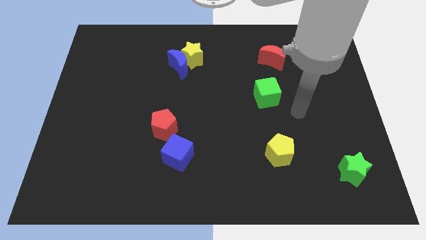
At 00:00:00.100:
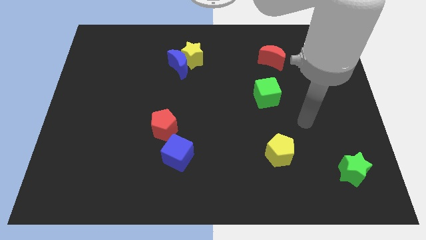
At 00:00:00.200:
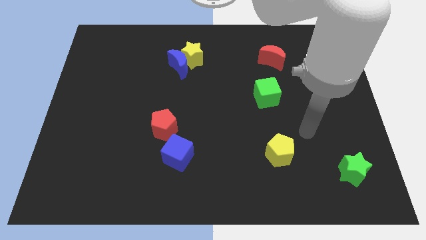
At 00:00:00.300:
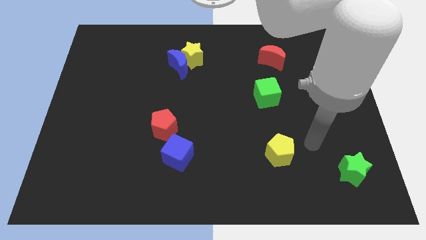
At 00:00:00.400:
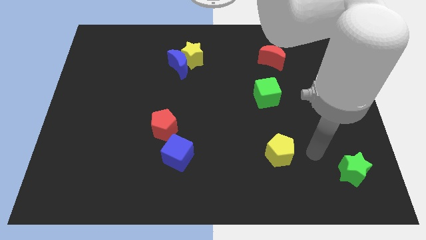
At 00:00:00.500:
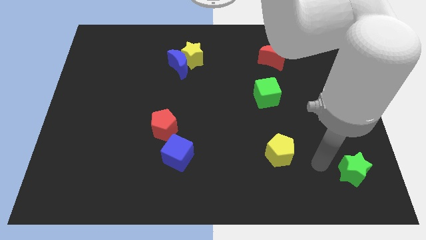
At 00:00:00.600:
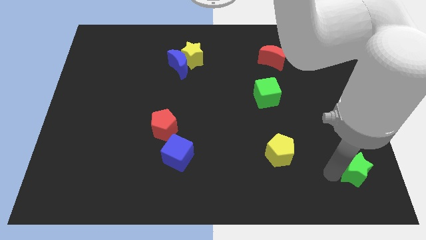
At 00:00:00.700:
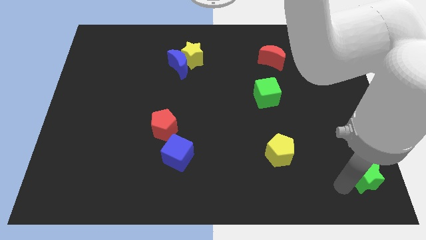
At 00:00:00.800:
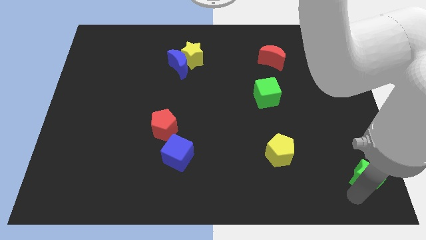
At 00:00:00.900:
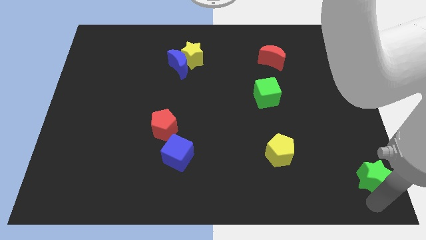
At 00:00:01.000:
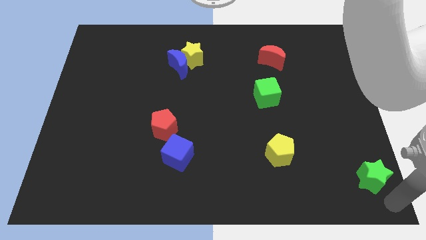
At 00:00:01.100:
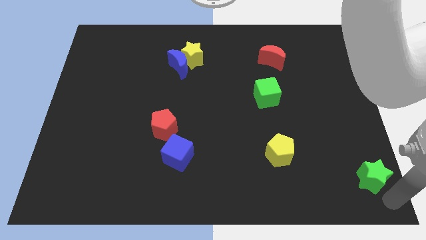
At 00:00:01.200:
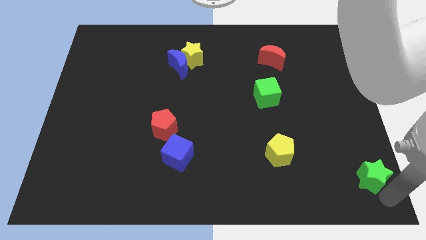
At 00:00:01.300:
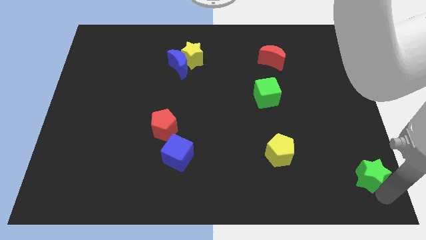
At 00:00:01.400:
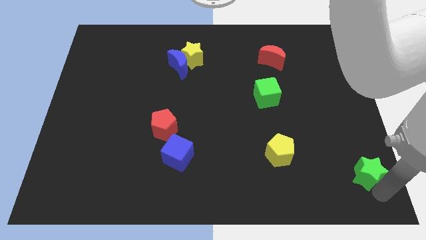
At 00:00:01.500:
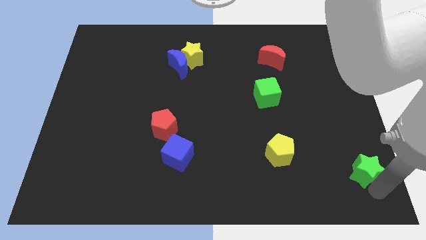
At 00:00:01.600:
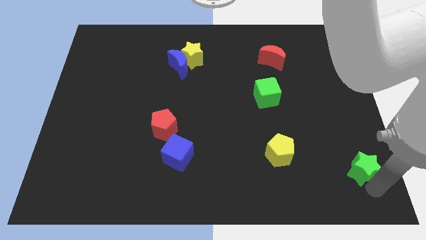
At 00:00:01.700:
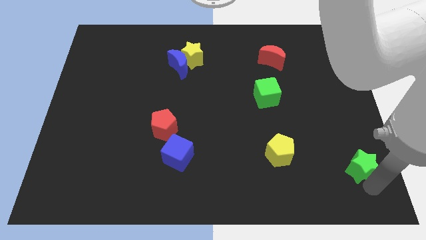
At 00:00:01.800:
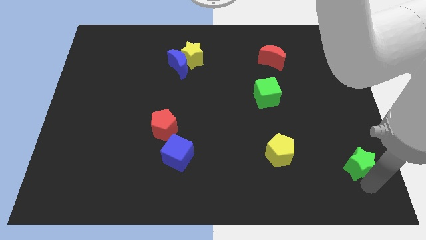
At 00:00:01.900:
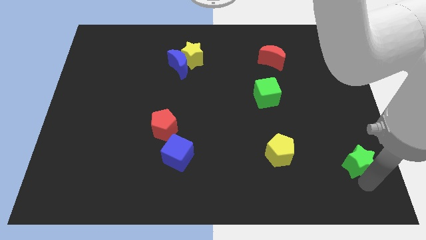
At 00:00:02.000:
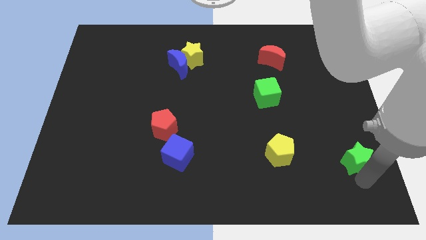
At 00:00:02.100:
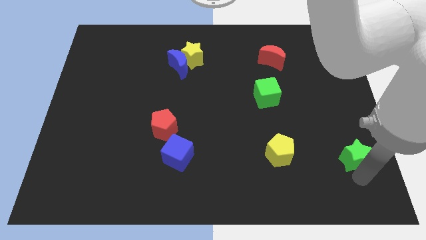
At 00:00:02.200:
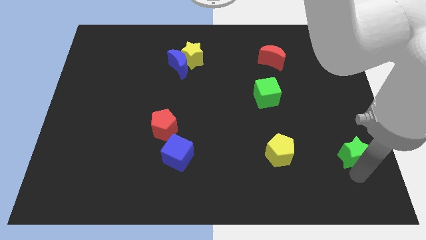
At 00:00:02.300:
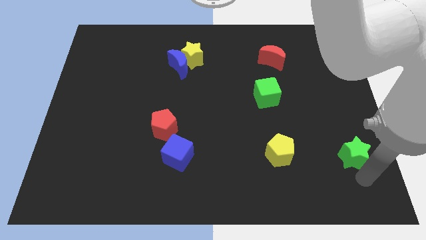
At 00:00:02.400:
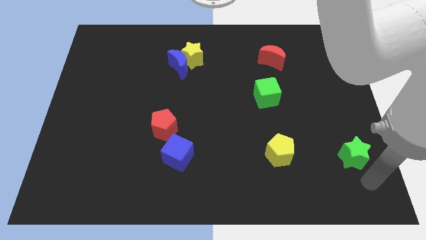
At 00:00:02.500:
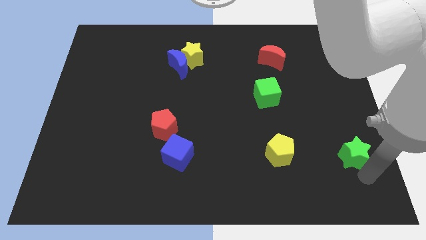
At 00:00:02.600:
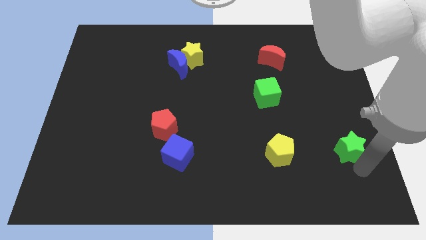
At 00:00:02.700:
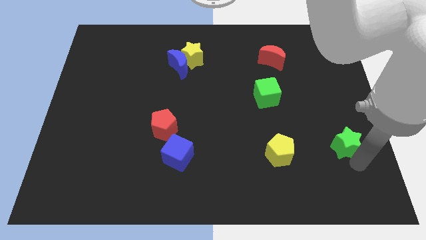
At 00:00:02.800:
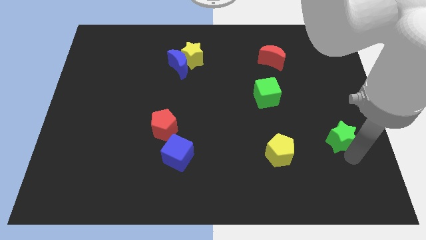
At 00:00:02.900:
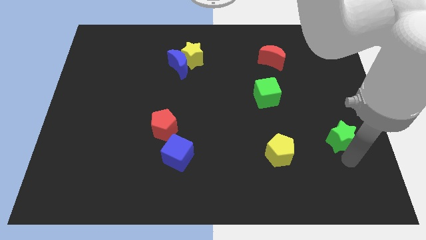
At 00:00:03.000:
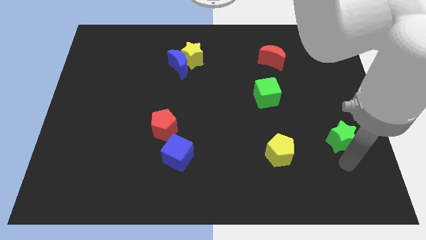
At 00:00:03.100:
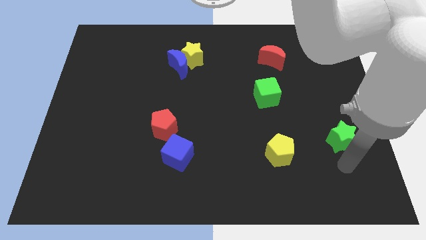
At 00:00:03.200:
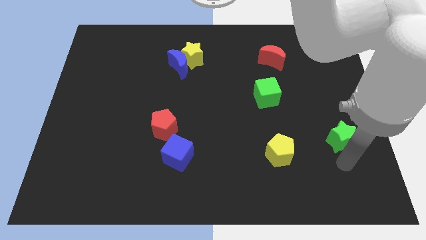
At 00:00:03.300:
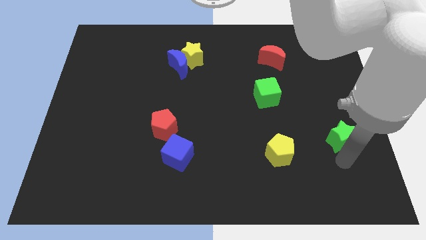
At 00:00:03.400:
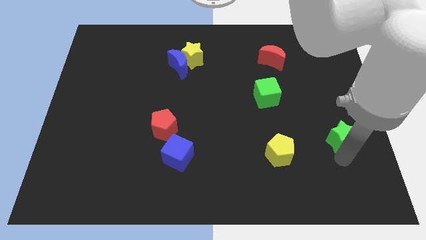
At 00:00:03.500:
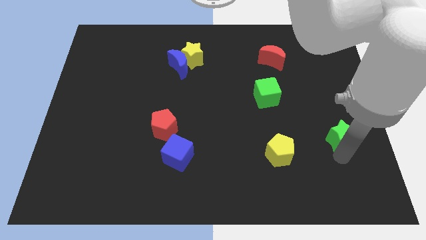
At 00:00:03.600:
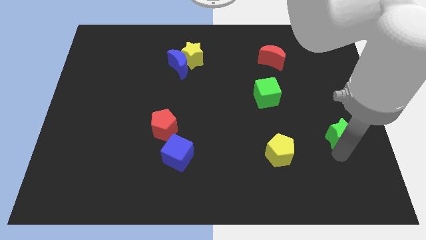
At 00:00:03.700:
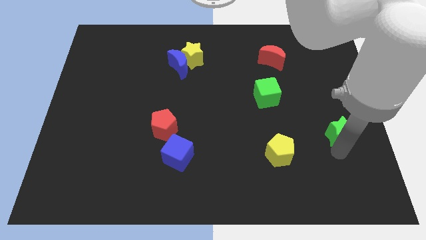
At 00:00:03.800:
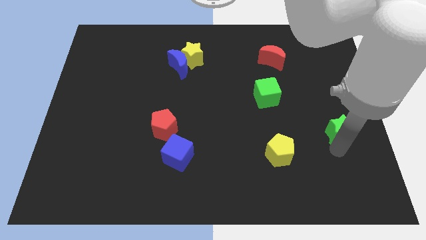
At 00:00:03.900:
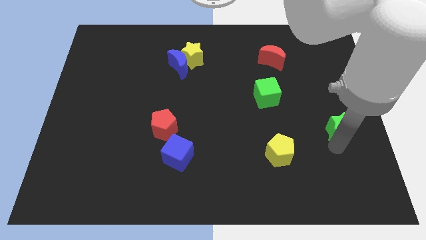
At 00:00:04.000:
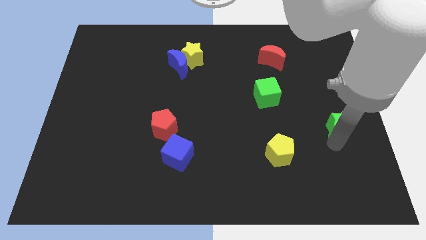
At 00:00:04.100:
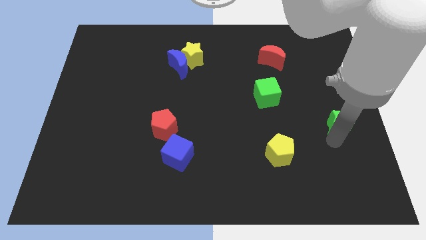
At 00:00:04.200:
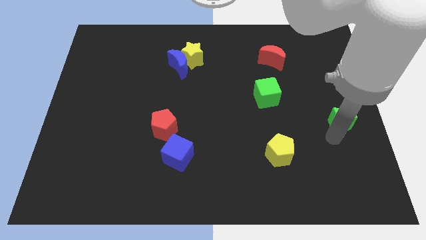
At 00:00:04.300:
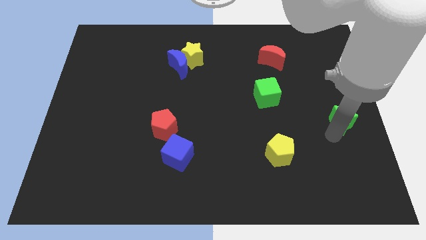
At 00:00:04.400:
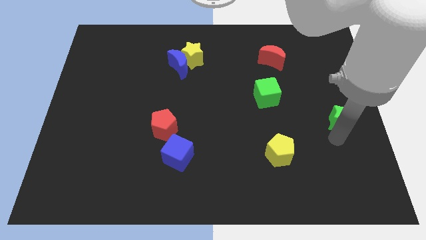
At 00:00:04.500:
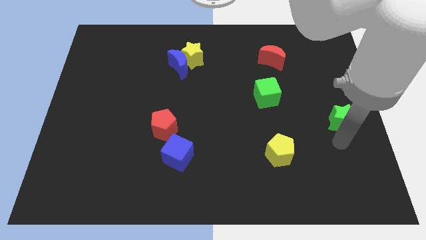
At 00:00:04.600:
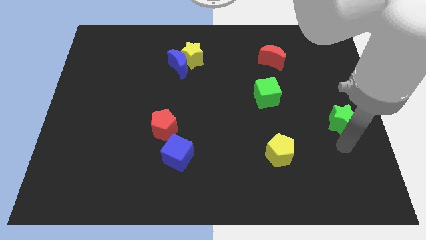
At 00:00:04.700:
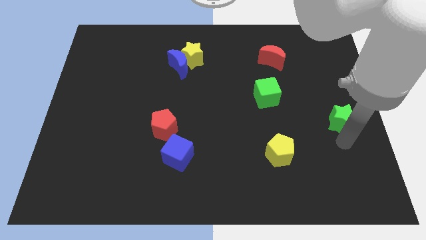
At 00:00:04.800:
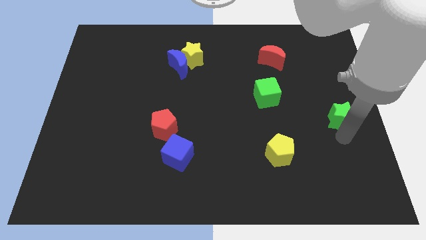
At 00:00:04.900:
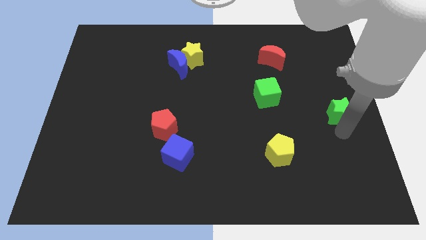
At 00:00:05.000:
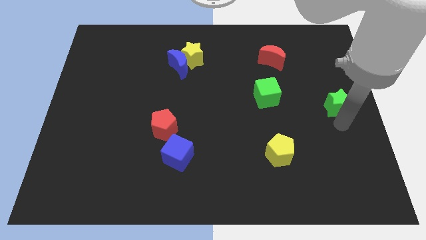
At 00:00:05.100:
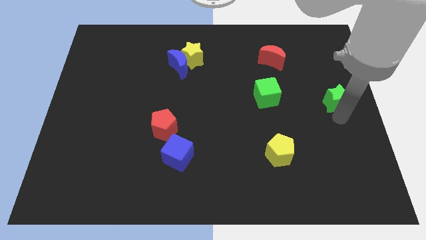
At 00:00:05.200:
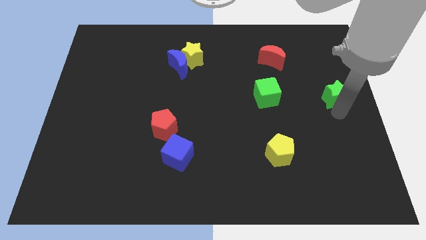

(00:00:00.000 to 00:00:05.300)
slide the green star up

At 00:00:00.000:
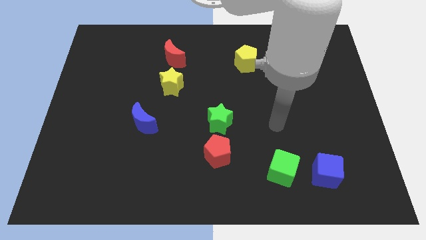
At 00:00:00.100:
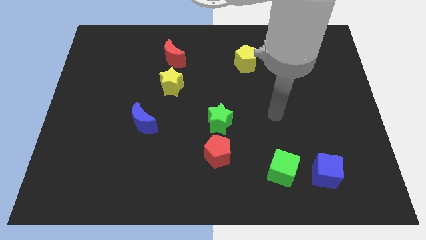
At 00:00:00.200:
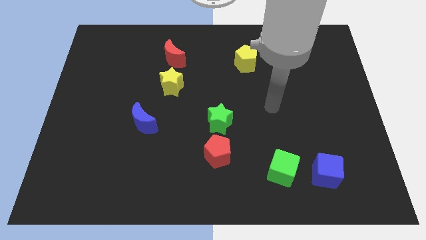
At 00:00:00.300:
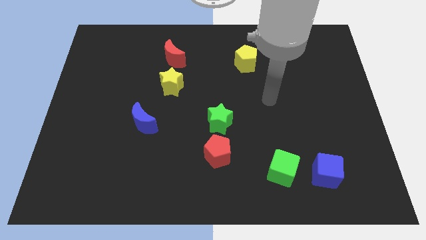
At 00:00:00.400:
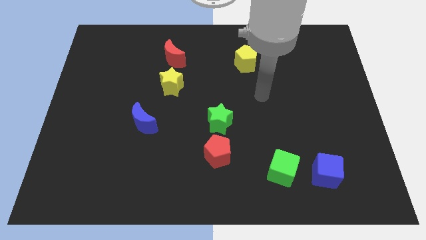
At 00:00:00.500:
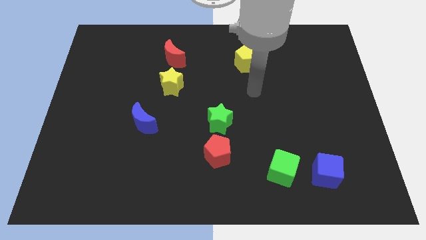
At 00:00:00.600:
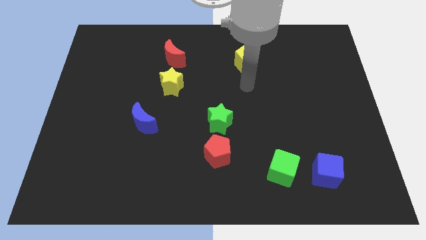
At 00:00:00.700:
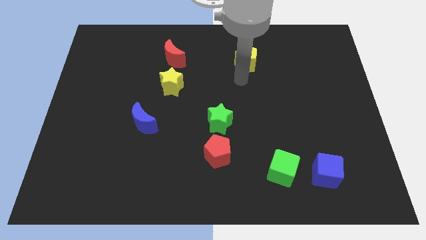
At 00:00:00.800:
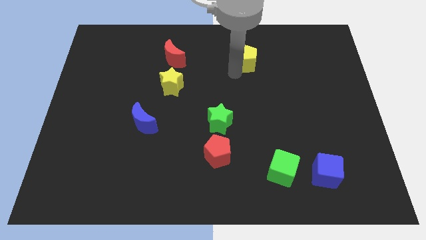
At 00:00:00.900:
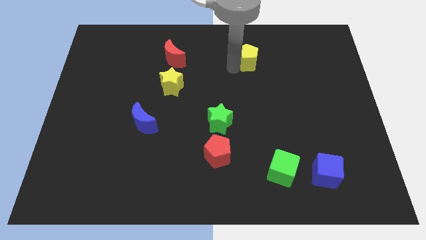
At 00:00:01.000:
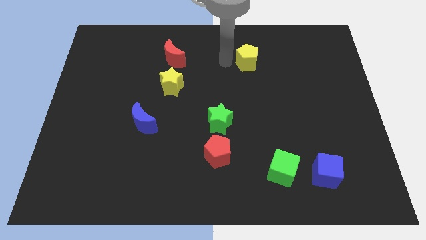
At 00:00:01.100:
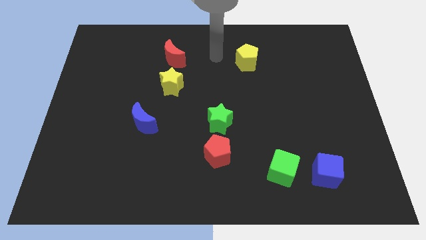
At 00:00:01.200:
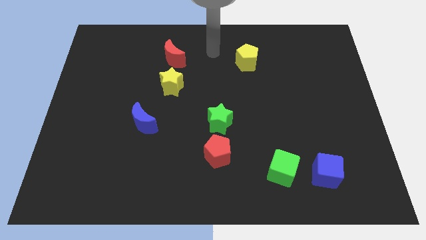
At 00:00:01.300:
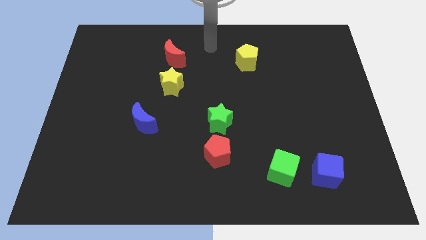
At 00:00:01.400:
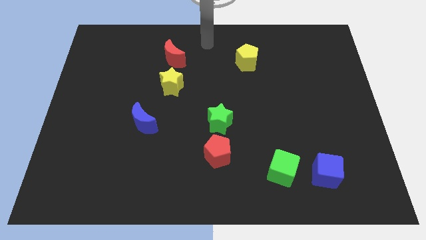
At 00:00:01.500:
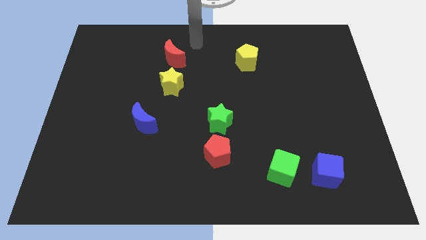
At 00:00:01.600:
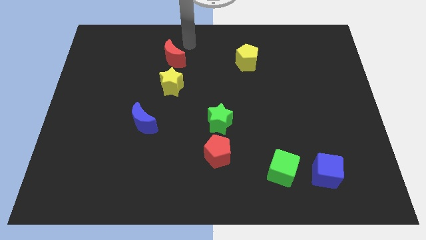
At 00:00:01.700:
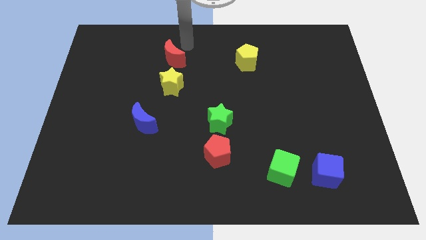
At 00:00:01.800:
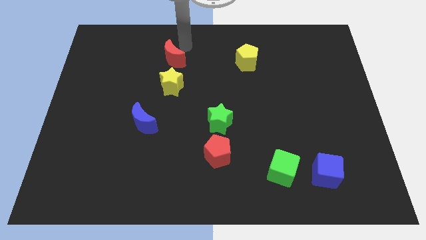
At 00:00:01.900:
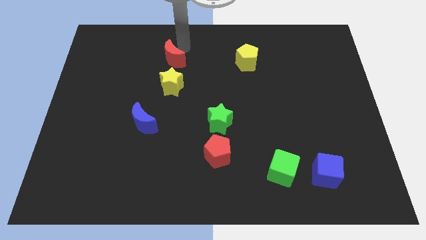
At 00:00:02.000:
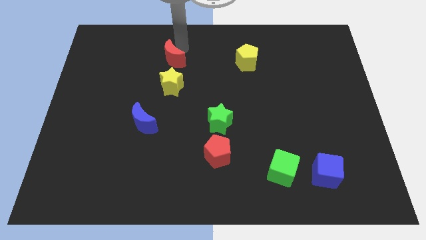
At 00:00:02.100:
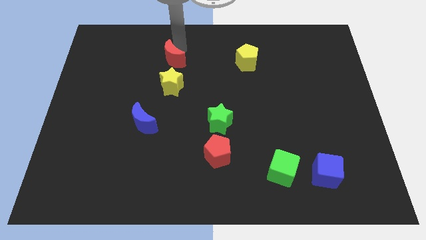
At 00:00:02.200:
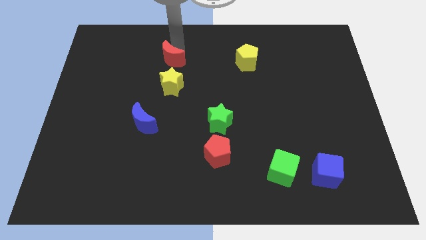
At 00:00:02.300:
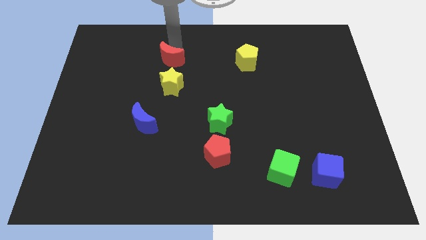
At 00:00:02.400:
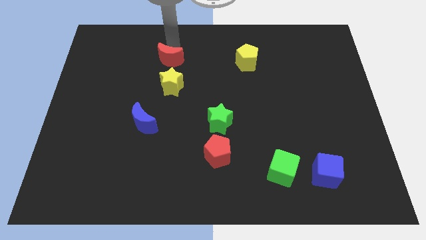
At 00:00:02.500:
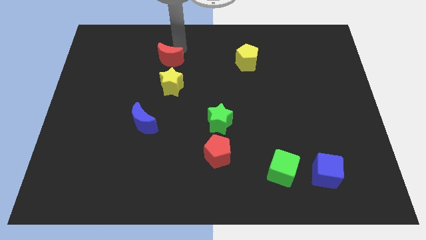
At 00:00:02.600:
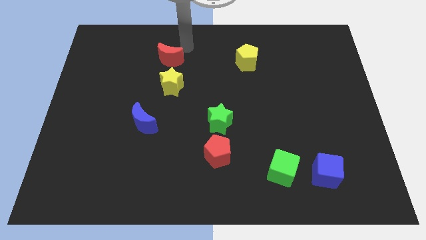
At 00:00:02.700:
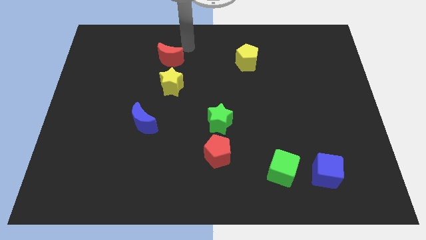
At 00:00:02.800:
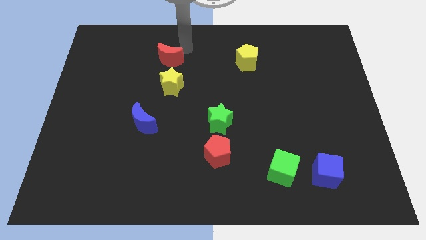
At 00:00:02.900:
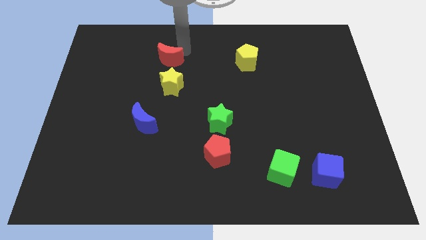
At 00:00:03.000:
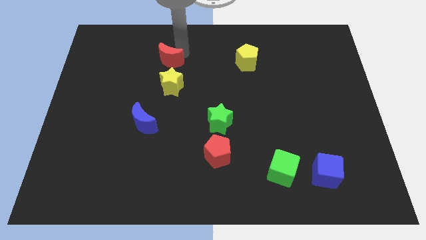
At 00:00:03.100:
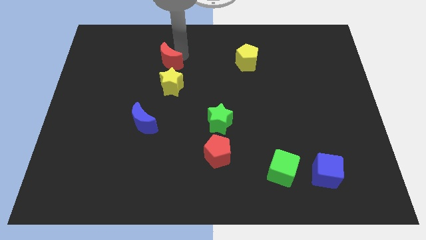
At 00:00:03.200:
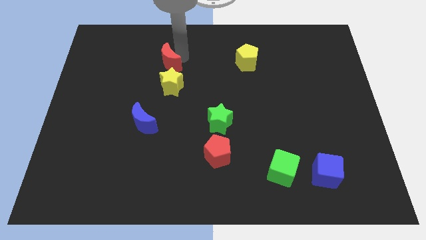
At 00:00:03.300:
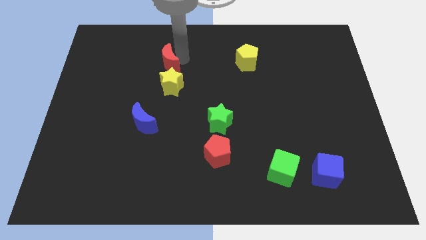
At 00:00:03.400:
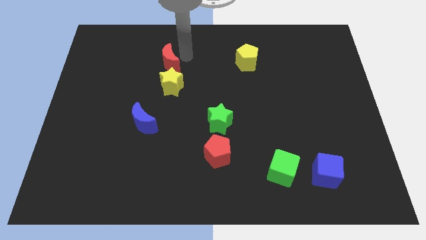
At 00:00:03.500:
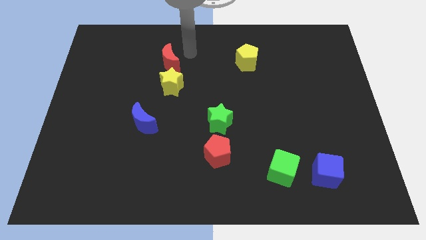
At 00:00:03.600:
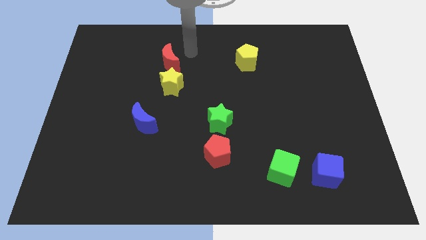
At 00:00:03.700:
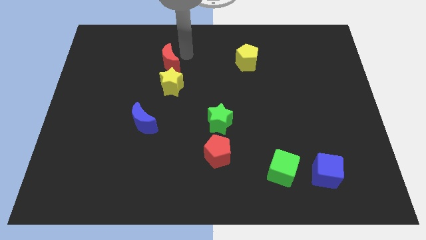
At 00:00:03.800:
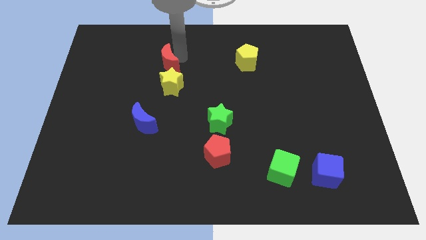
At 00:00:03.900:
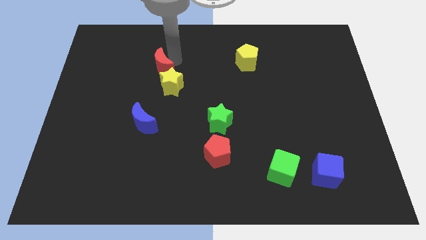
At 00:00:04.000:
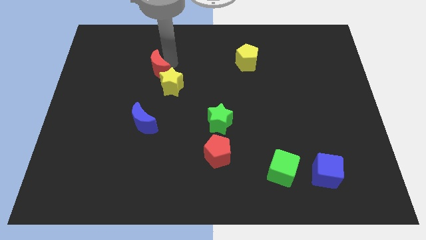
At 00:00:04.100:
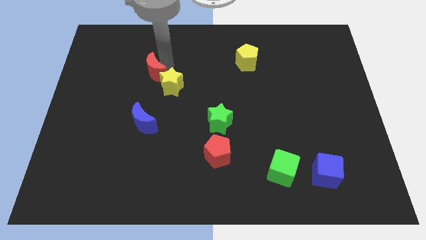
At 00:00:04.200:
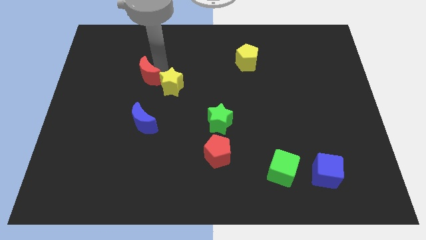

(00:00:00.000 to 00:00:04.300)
move the red moon downwards and to the left diagonally a little bit
